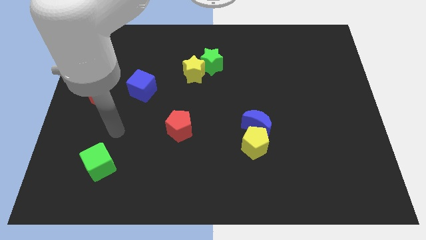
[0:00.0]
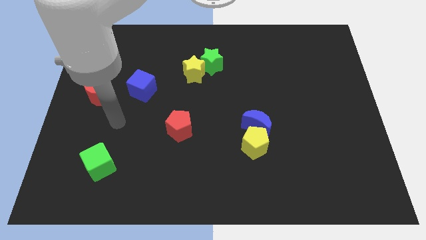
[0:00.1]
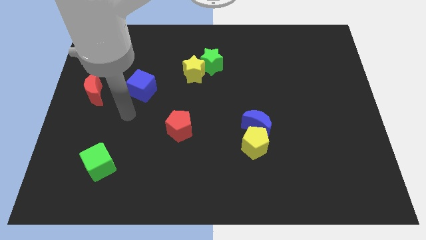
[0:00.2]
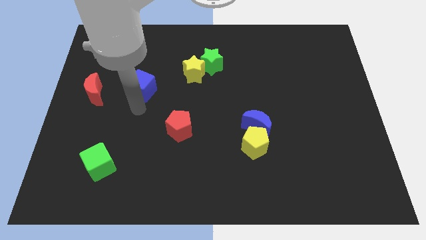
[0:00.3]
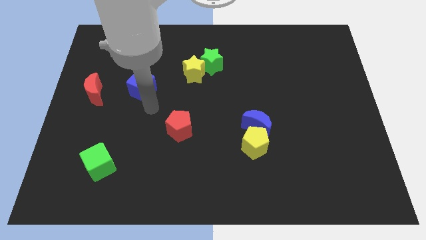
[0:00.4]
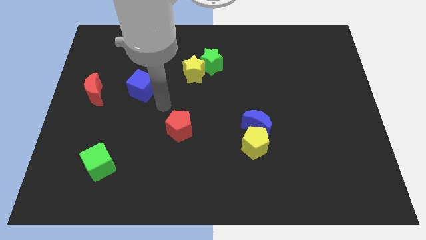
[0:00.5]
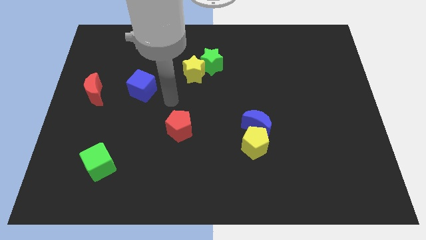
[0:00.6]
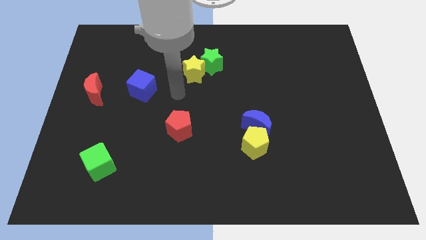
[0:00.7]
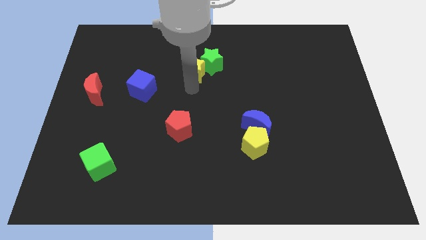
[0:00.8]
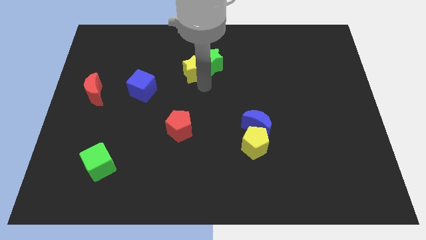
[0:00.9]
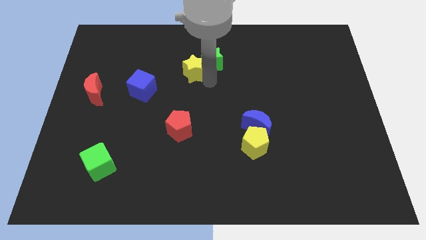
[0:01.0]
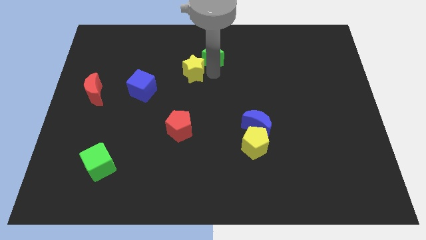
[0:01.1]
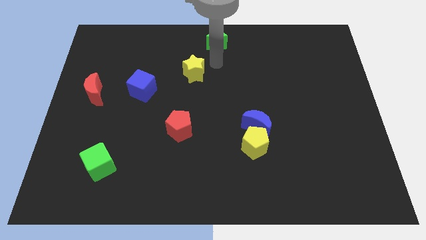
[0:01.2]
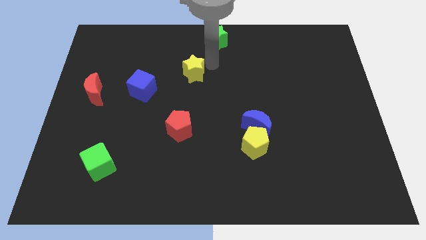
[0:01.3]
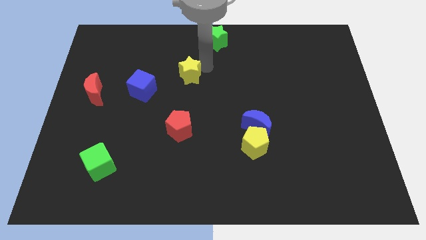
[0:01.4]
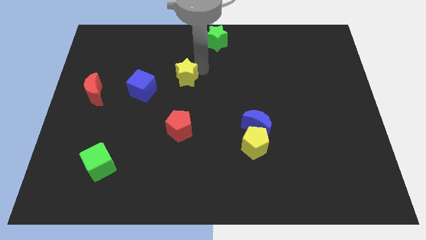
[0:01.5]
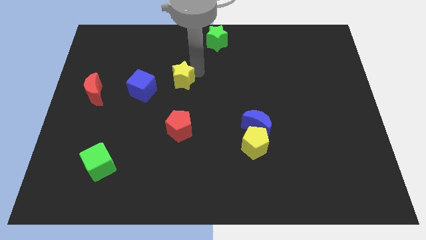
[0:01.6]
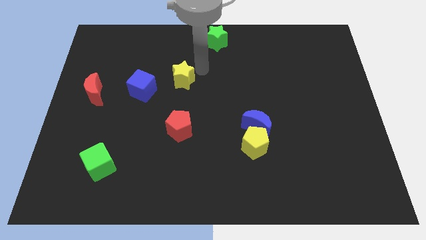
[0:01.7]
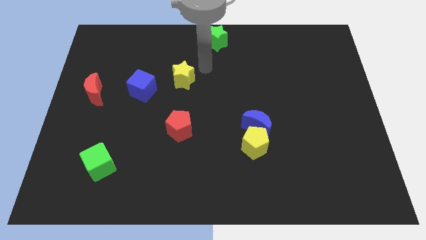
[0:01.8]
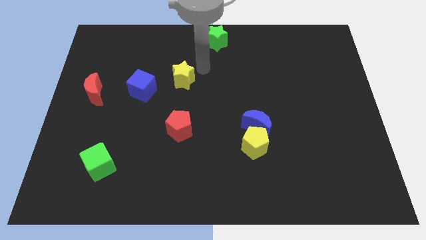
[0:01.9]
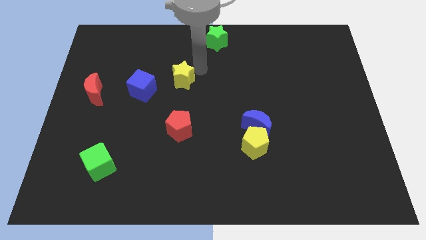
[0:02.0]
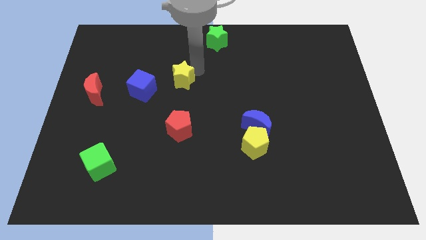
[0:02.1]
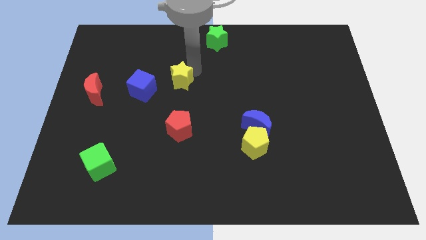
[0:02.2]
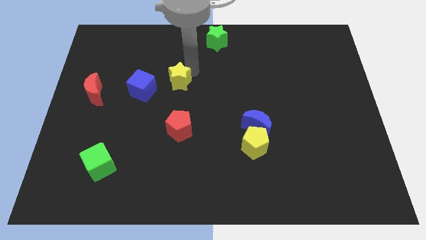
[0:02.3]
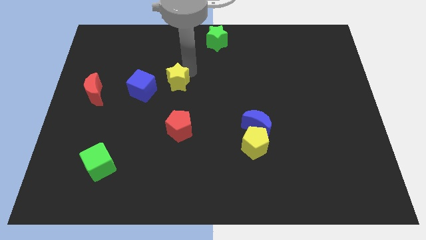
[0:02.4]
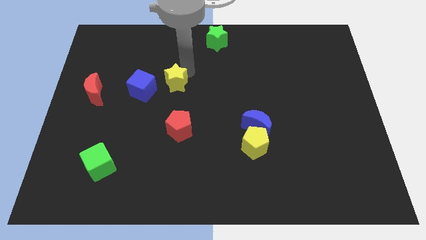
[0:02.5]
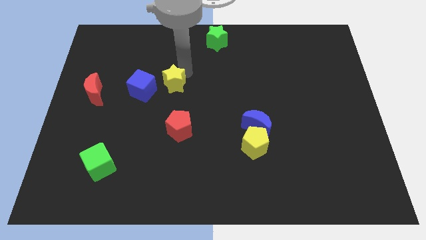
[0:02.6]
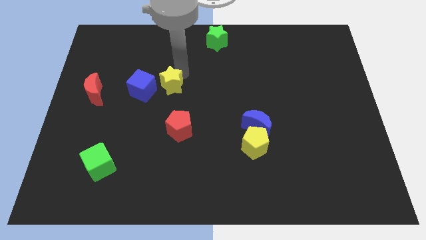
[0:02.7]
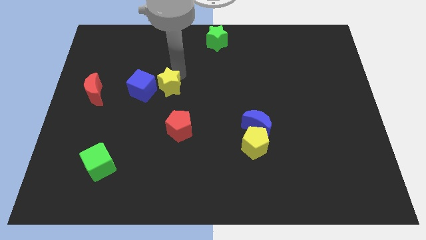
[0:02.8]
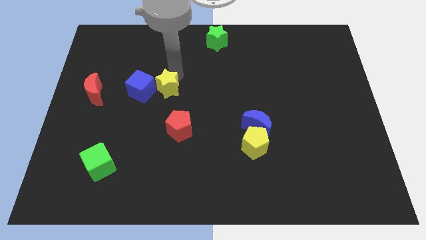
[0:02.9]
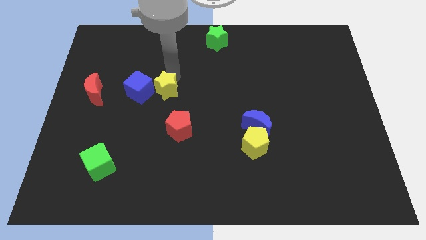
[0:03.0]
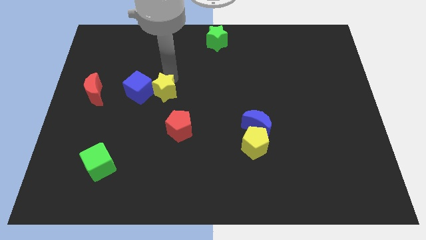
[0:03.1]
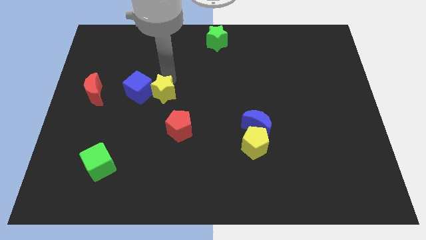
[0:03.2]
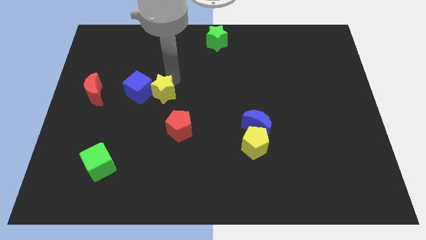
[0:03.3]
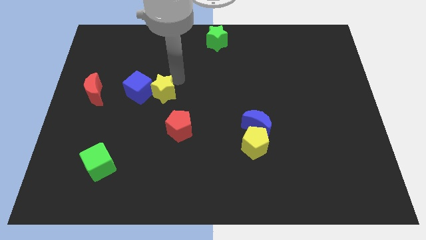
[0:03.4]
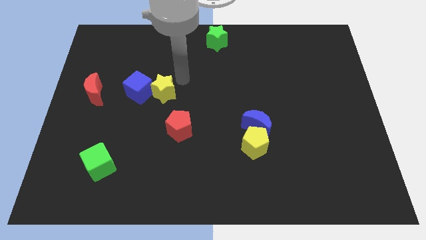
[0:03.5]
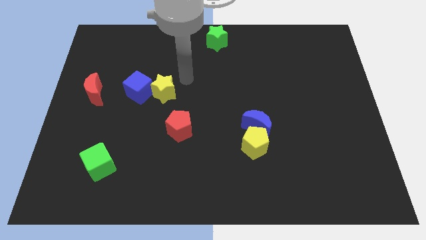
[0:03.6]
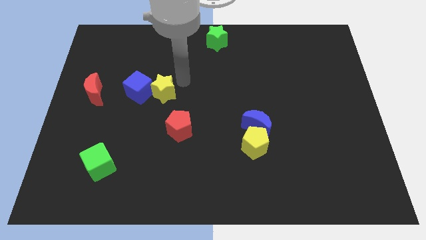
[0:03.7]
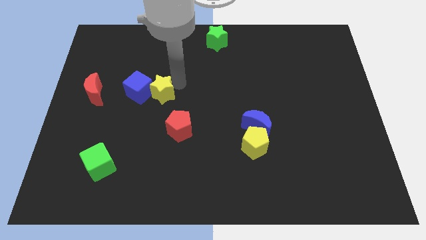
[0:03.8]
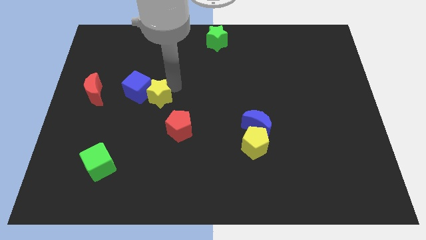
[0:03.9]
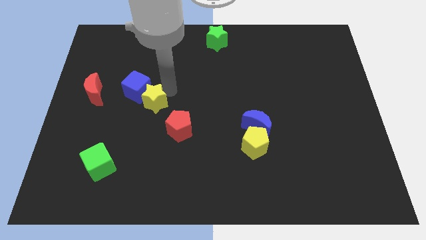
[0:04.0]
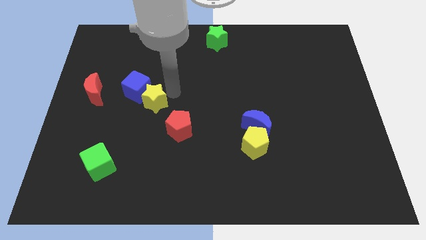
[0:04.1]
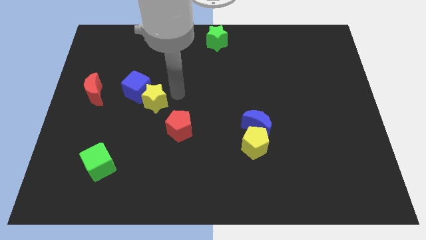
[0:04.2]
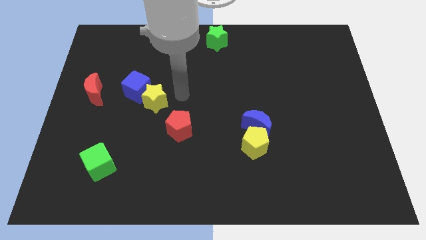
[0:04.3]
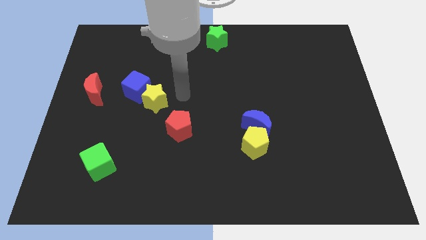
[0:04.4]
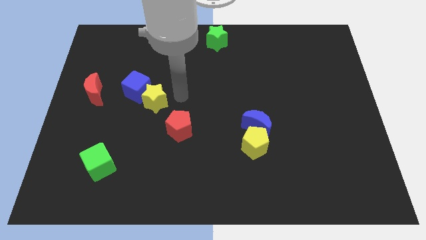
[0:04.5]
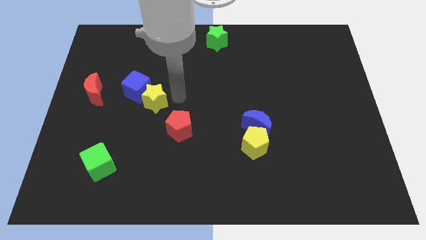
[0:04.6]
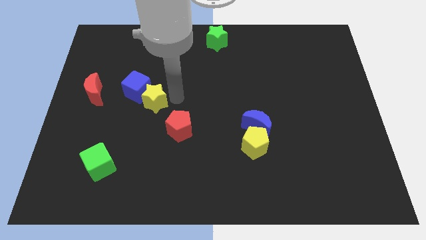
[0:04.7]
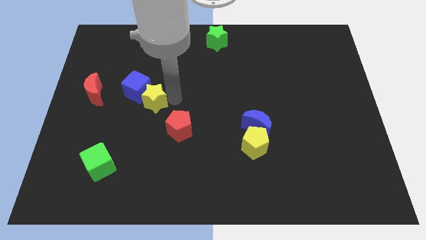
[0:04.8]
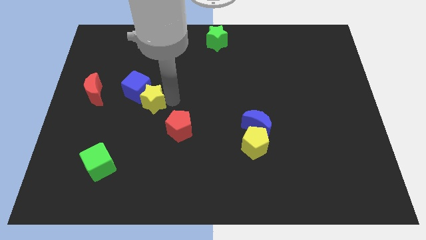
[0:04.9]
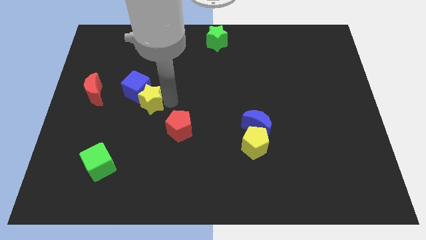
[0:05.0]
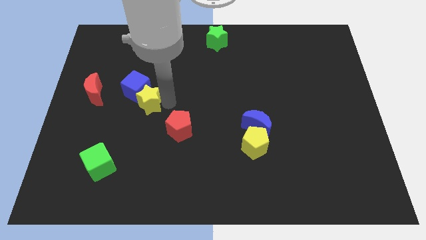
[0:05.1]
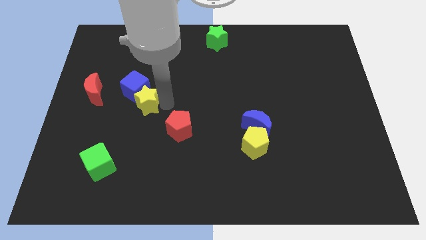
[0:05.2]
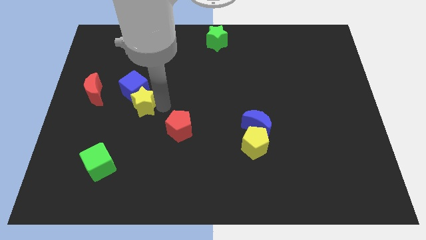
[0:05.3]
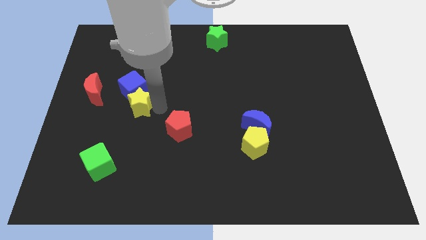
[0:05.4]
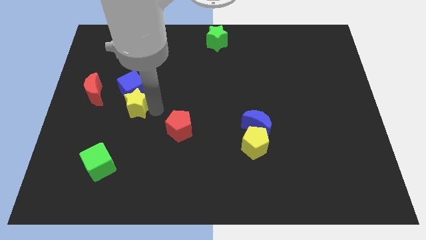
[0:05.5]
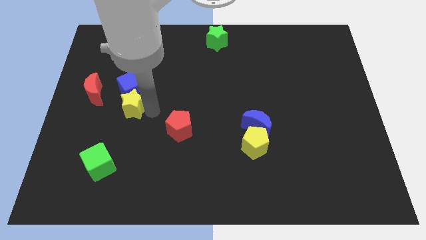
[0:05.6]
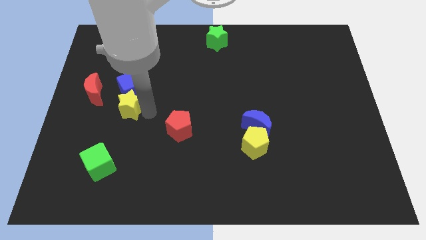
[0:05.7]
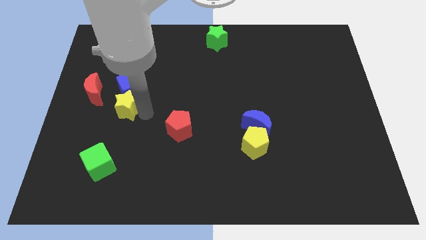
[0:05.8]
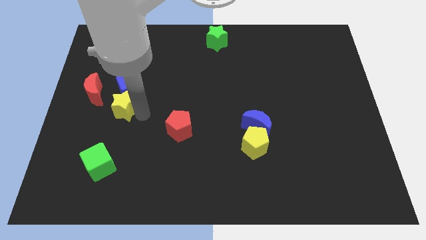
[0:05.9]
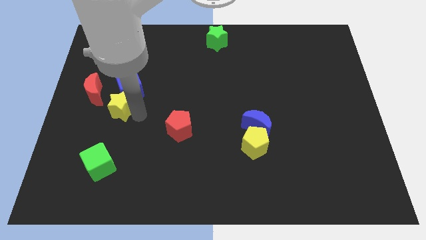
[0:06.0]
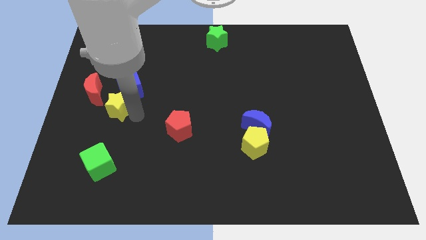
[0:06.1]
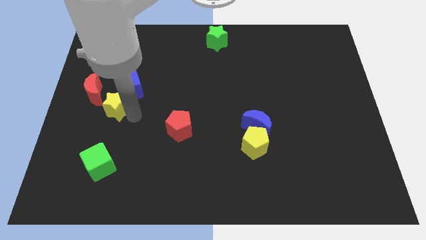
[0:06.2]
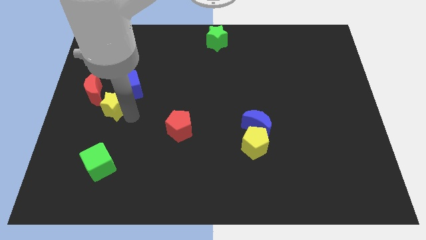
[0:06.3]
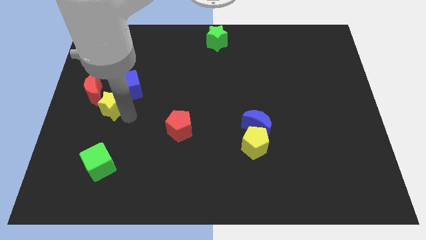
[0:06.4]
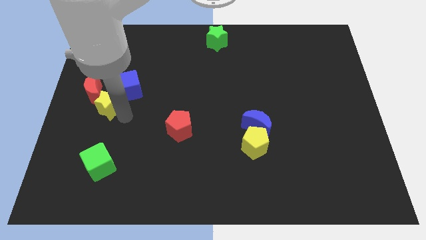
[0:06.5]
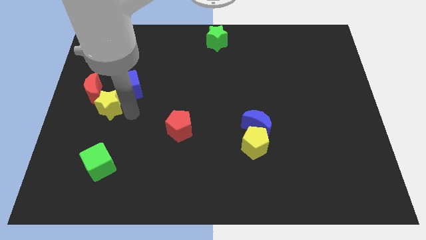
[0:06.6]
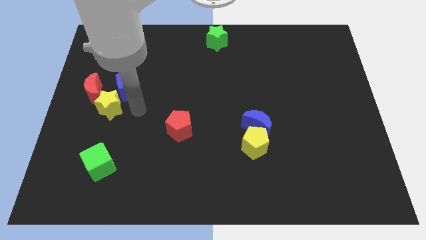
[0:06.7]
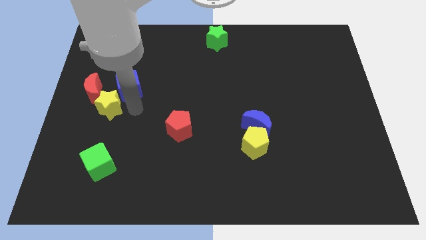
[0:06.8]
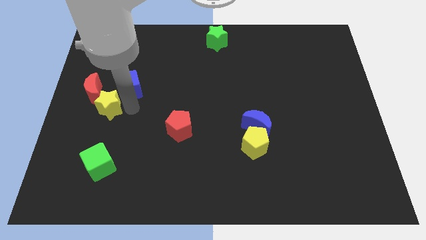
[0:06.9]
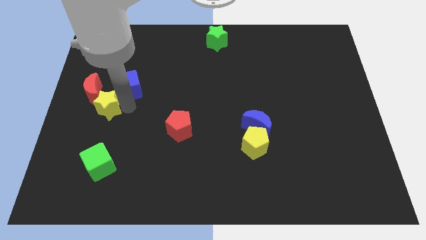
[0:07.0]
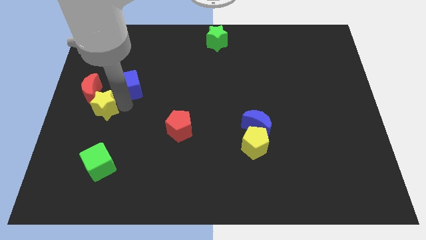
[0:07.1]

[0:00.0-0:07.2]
slide the yellow star to the left side
